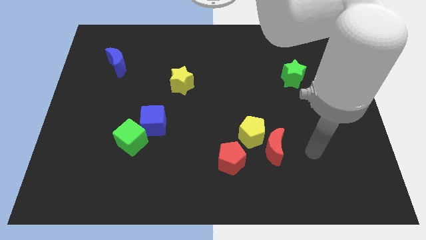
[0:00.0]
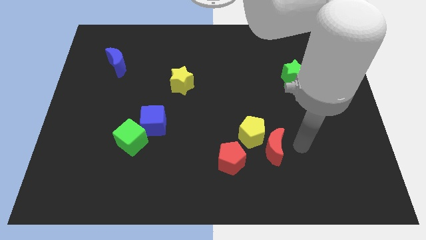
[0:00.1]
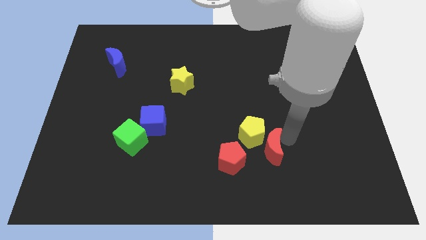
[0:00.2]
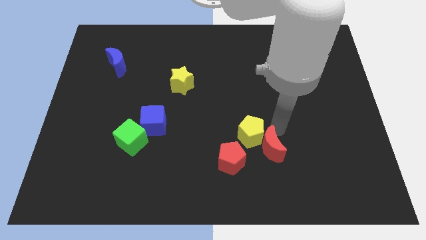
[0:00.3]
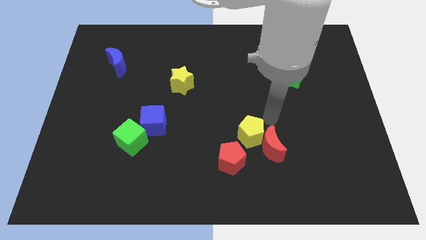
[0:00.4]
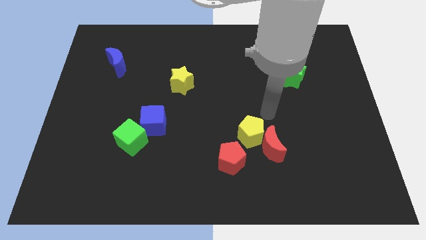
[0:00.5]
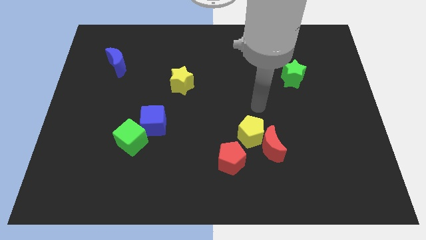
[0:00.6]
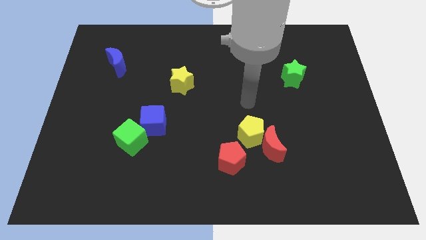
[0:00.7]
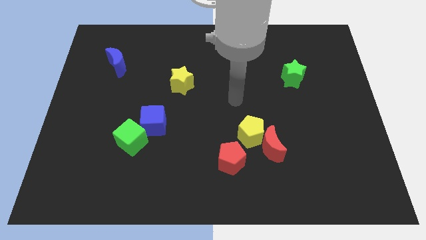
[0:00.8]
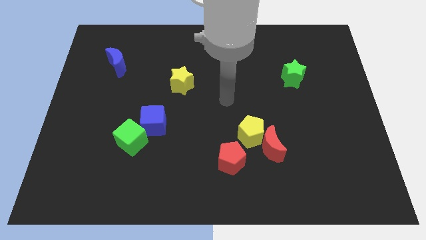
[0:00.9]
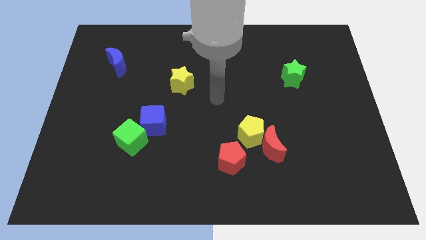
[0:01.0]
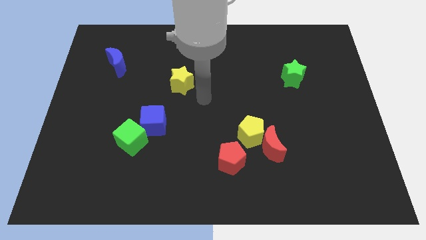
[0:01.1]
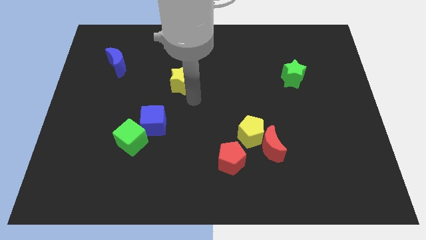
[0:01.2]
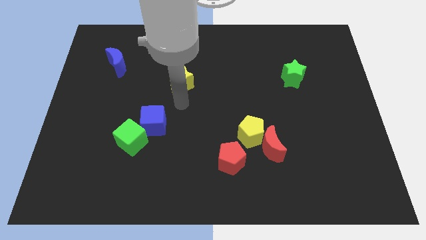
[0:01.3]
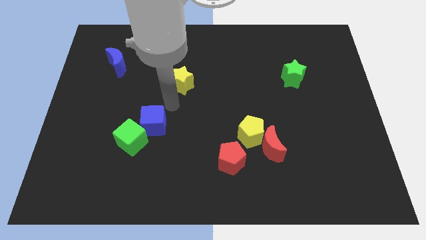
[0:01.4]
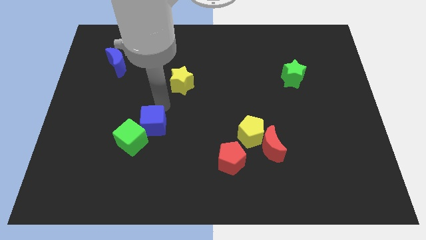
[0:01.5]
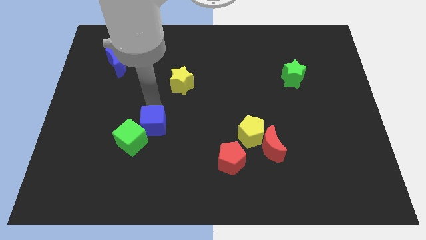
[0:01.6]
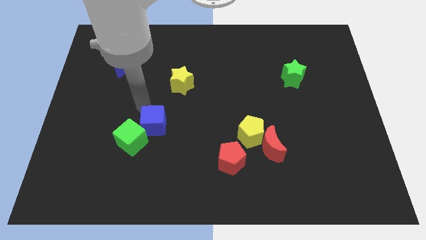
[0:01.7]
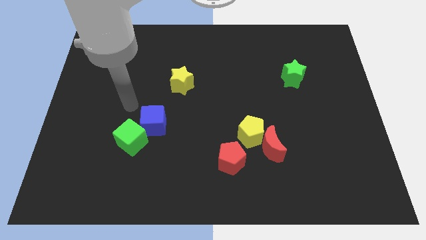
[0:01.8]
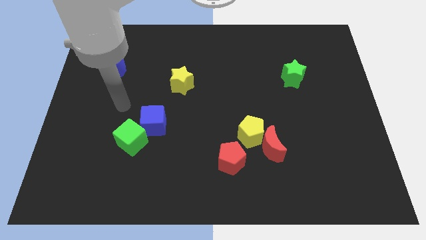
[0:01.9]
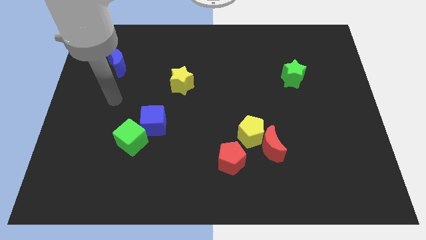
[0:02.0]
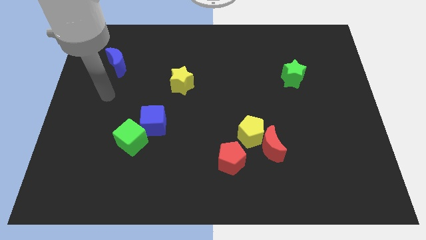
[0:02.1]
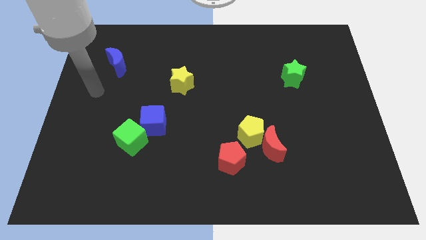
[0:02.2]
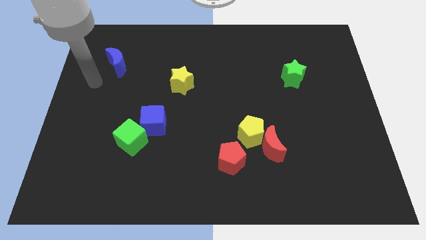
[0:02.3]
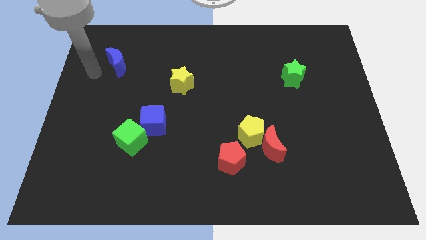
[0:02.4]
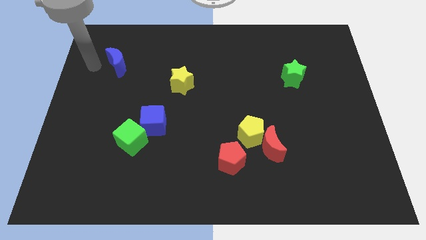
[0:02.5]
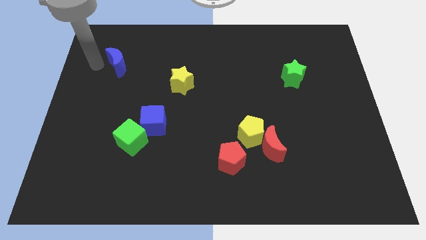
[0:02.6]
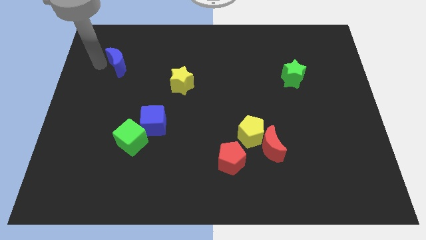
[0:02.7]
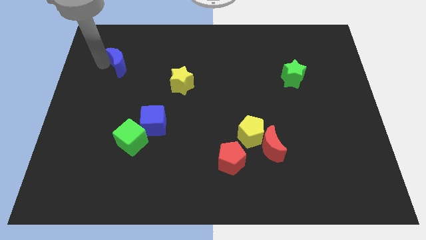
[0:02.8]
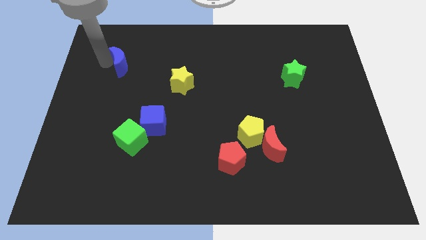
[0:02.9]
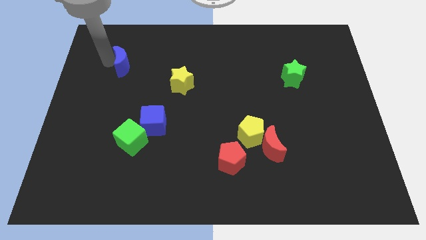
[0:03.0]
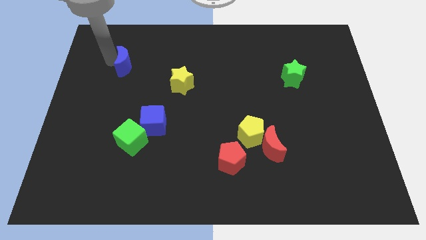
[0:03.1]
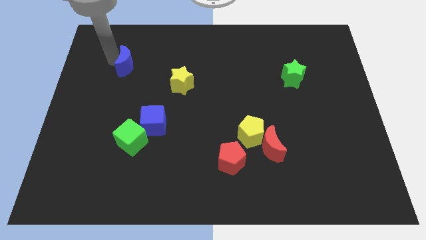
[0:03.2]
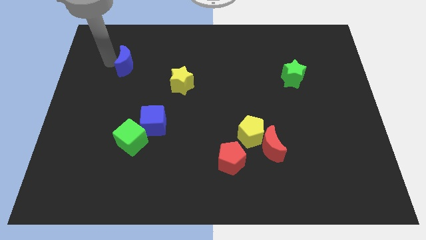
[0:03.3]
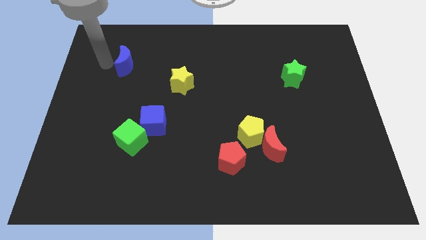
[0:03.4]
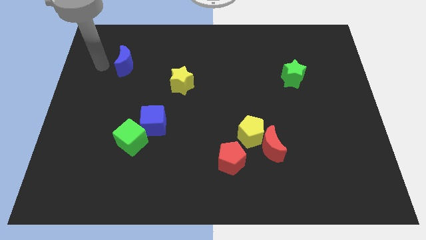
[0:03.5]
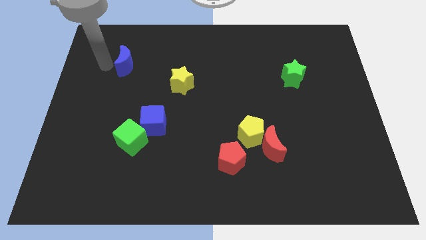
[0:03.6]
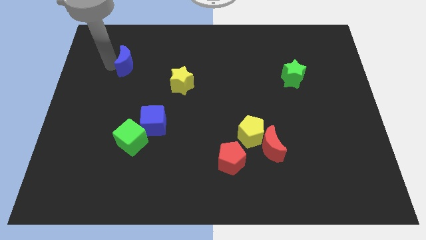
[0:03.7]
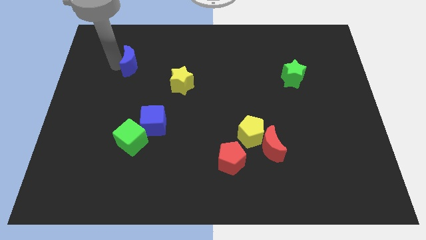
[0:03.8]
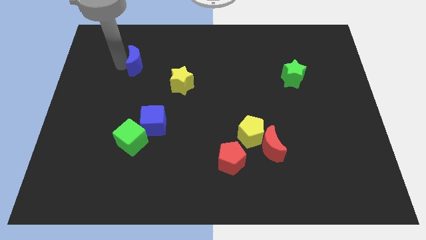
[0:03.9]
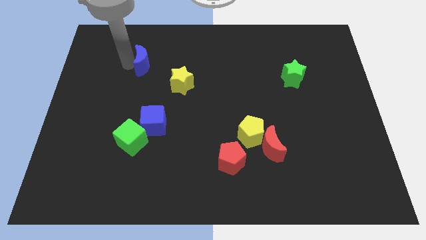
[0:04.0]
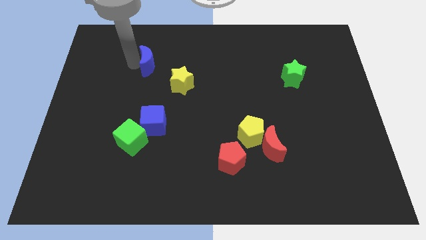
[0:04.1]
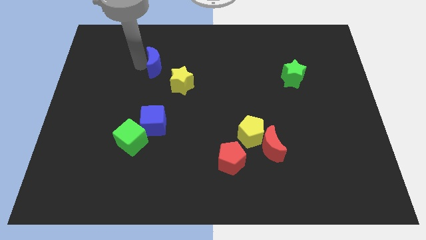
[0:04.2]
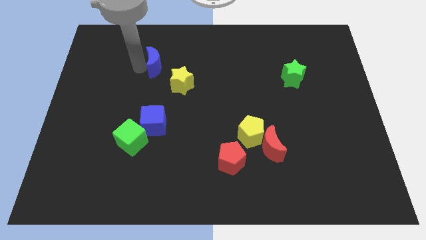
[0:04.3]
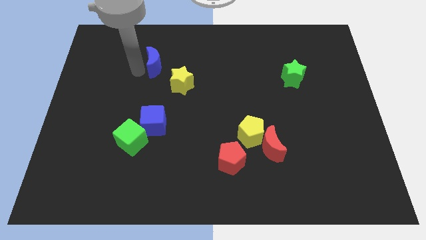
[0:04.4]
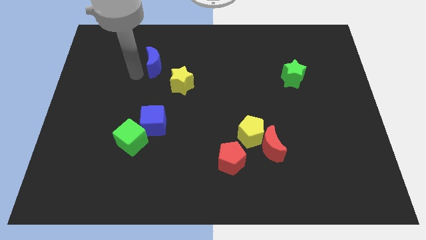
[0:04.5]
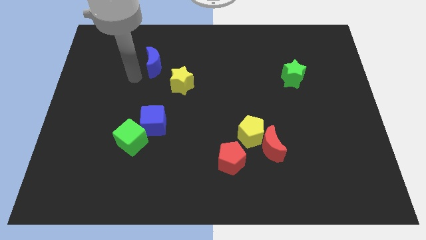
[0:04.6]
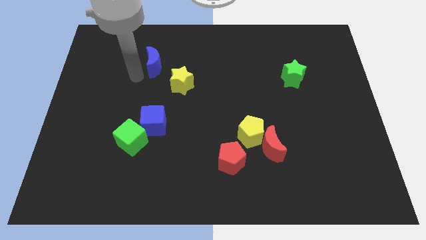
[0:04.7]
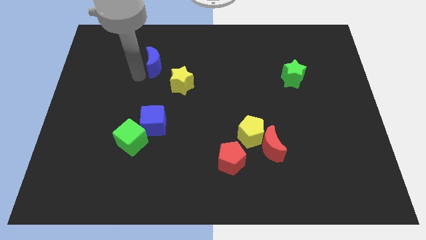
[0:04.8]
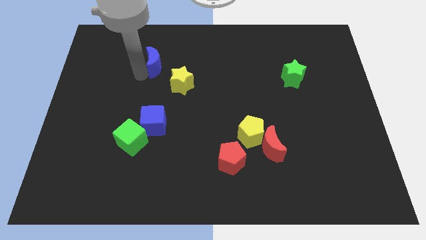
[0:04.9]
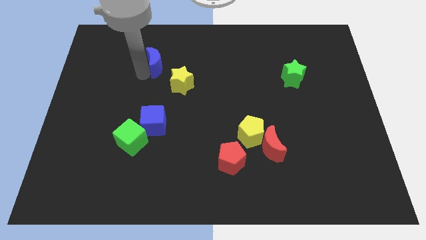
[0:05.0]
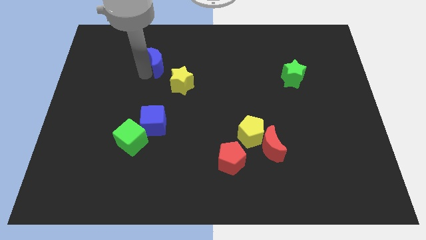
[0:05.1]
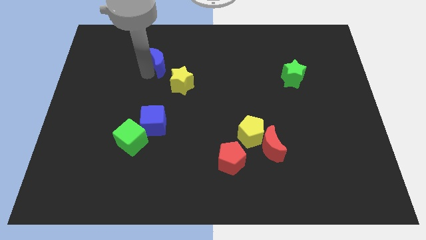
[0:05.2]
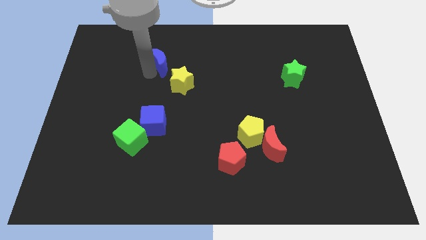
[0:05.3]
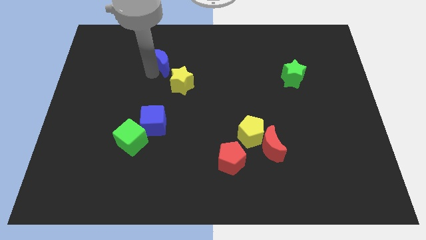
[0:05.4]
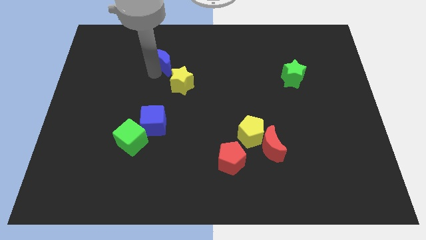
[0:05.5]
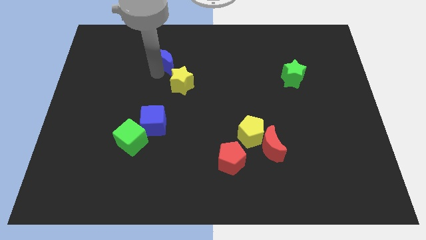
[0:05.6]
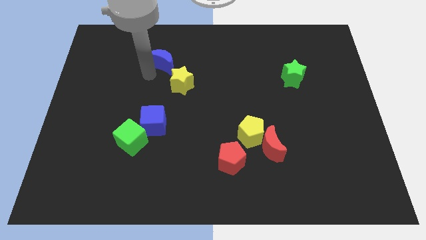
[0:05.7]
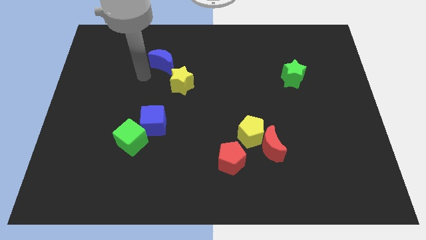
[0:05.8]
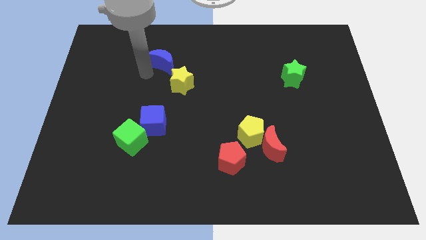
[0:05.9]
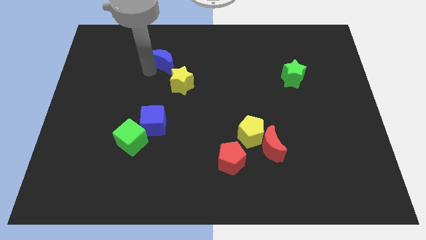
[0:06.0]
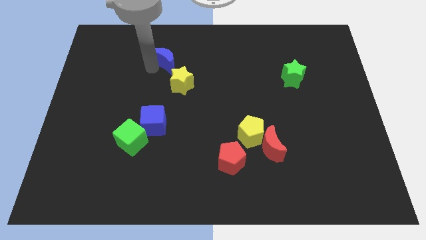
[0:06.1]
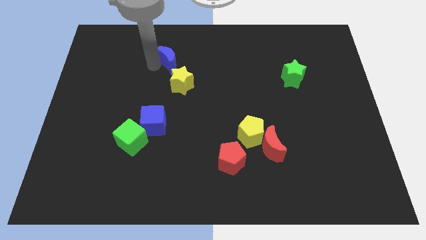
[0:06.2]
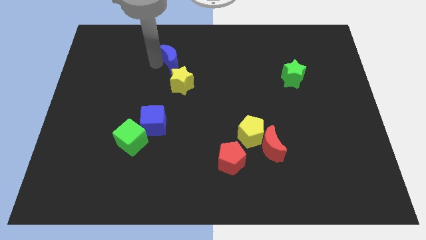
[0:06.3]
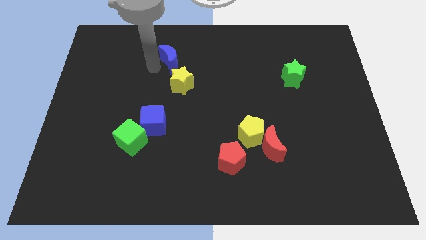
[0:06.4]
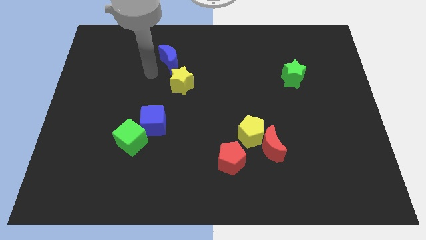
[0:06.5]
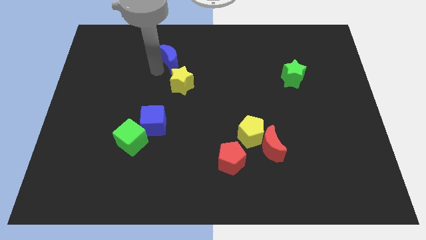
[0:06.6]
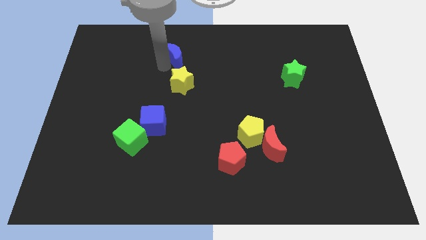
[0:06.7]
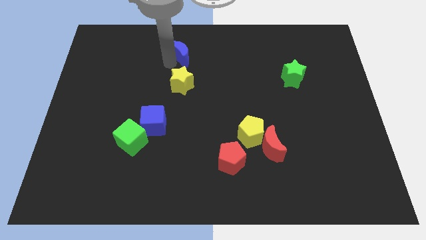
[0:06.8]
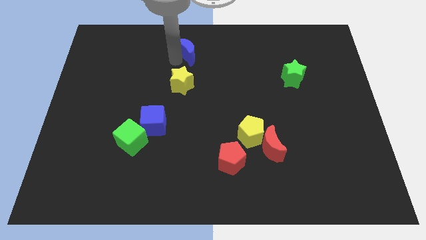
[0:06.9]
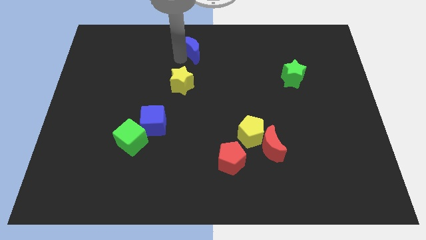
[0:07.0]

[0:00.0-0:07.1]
push the blue moon to the towards your base
